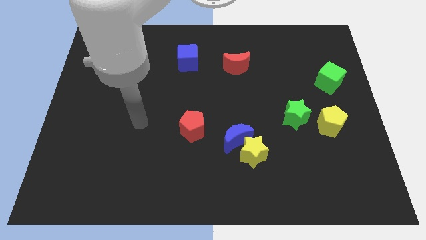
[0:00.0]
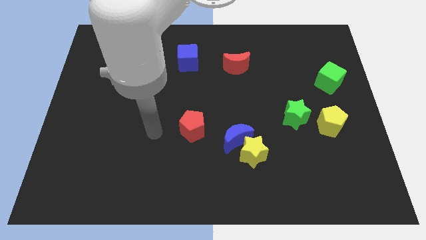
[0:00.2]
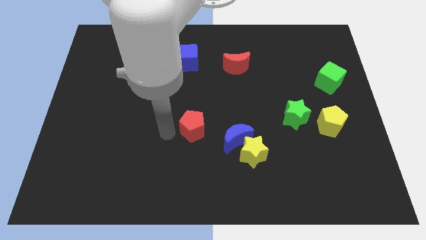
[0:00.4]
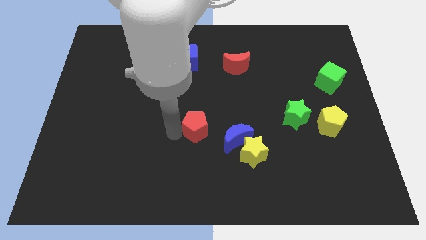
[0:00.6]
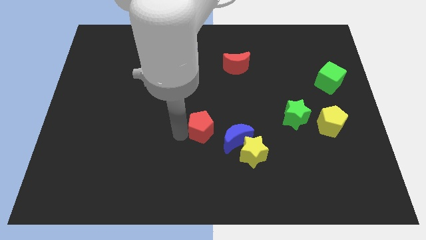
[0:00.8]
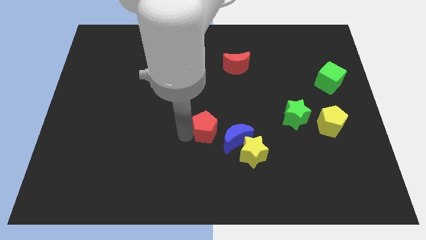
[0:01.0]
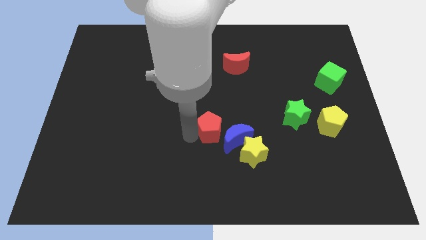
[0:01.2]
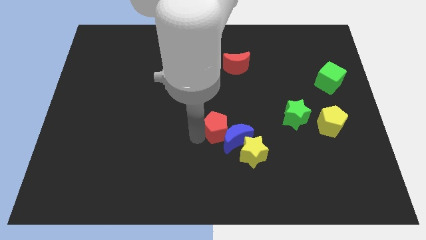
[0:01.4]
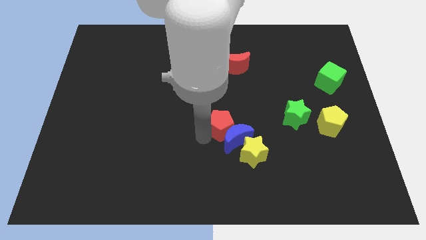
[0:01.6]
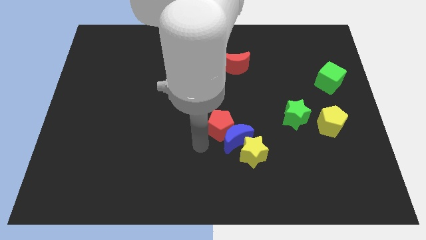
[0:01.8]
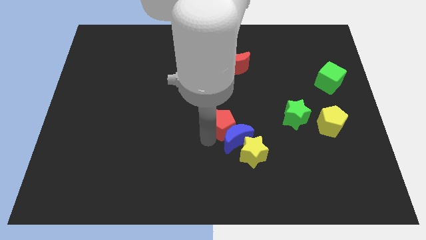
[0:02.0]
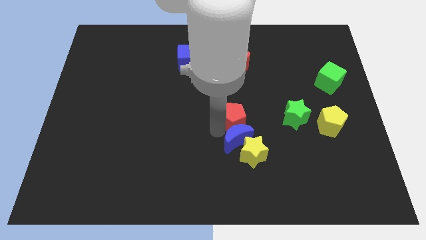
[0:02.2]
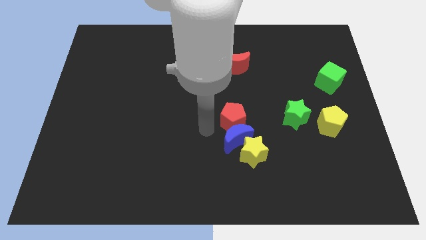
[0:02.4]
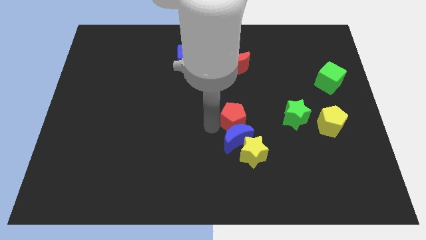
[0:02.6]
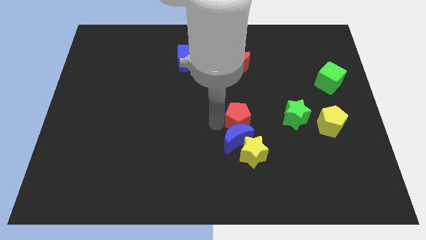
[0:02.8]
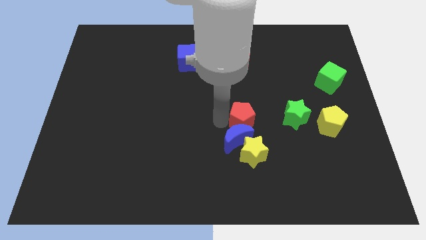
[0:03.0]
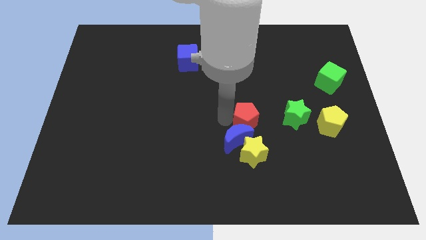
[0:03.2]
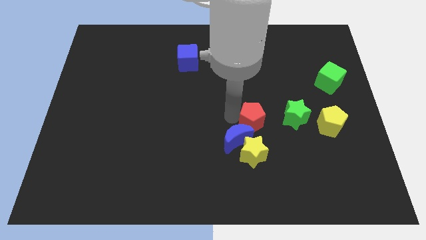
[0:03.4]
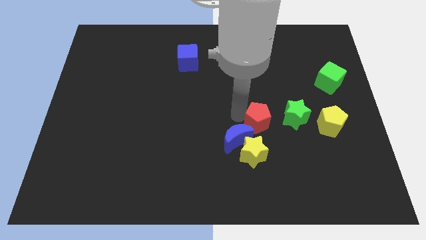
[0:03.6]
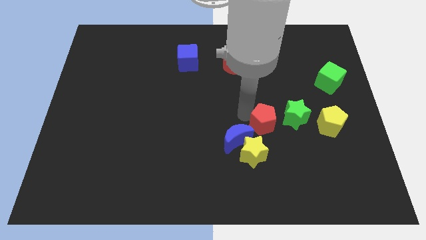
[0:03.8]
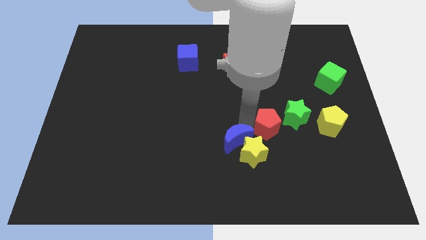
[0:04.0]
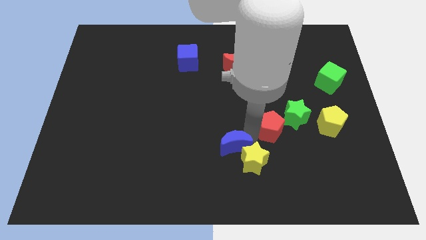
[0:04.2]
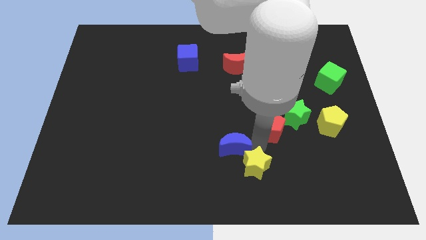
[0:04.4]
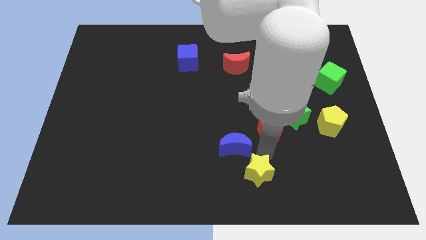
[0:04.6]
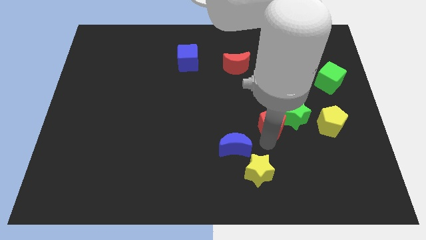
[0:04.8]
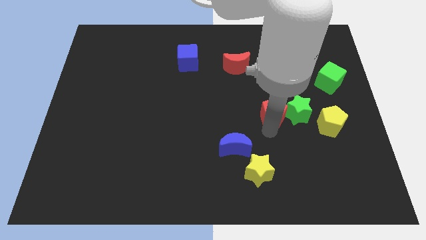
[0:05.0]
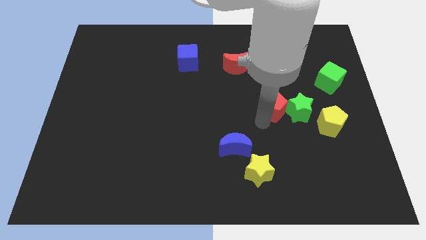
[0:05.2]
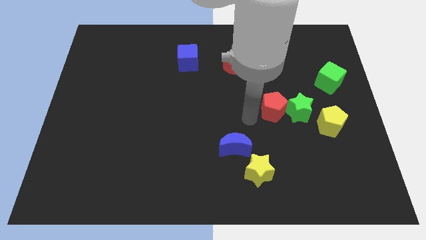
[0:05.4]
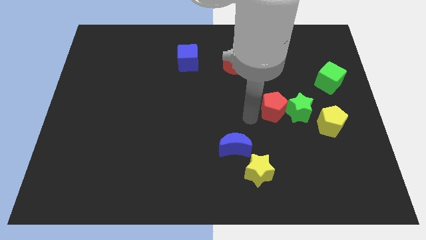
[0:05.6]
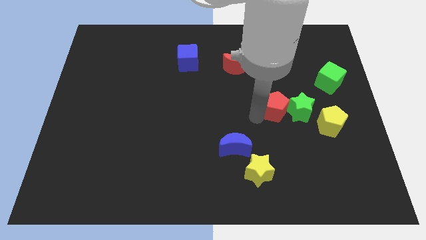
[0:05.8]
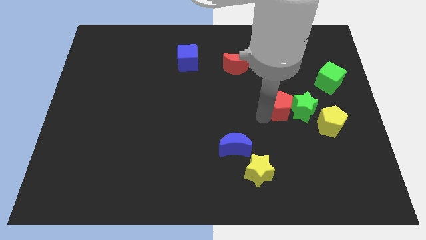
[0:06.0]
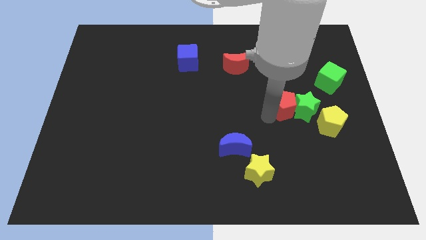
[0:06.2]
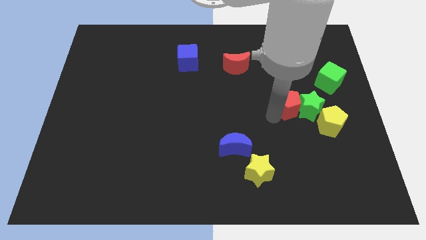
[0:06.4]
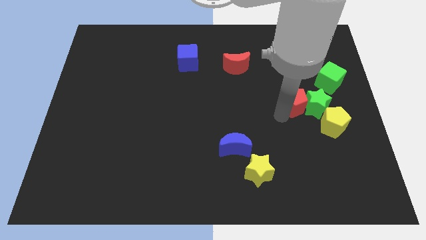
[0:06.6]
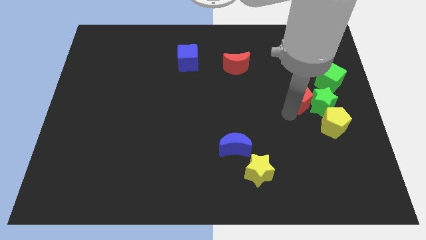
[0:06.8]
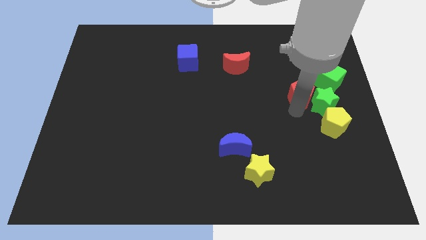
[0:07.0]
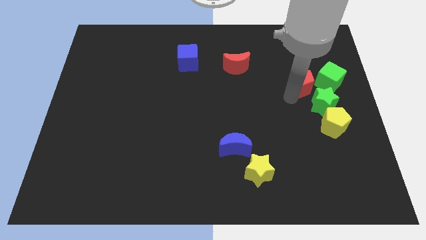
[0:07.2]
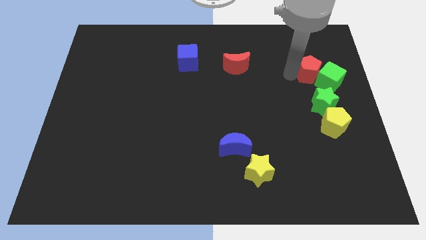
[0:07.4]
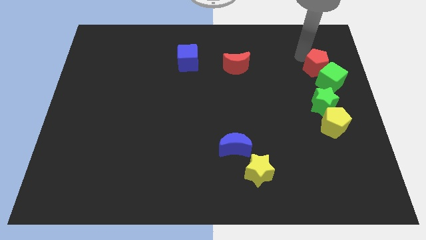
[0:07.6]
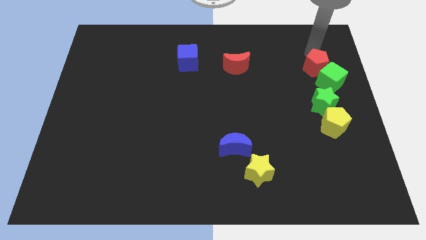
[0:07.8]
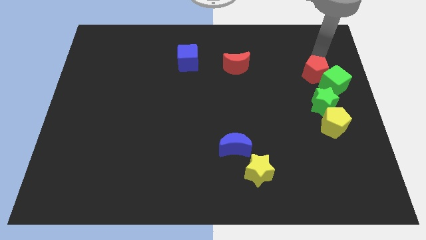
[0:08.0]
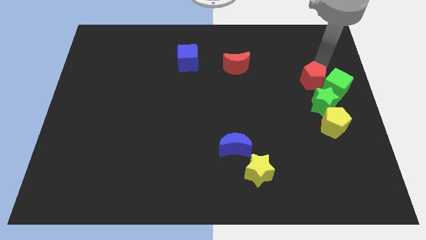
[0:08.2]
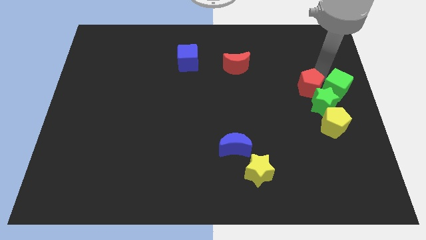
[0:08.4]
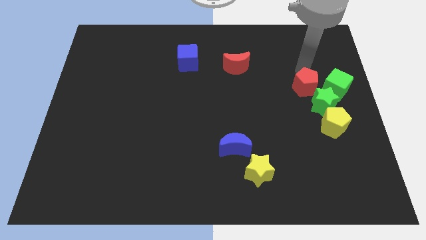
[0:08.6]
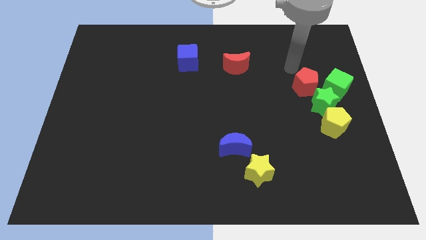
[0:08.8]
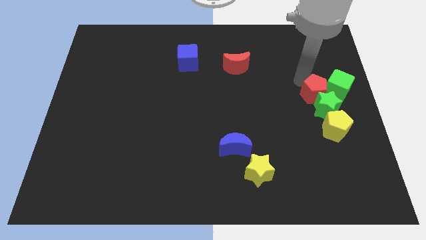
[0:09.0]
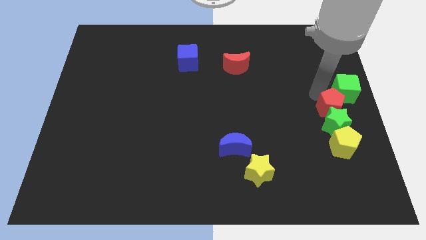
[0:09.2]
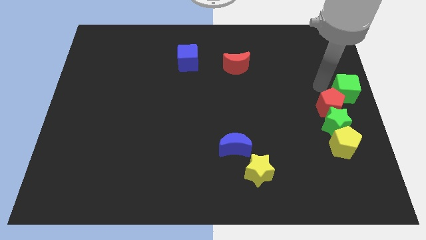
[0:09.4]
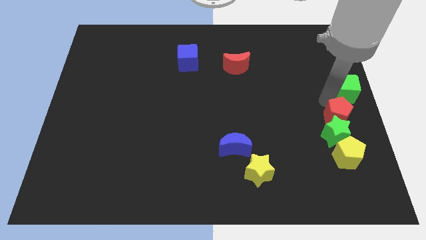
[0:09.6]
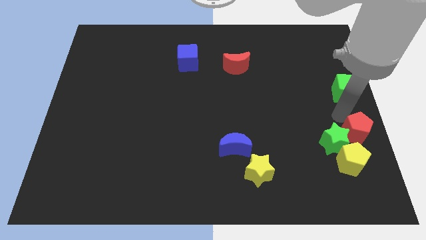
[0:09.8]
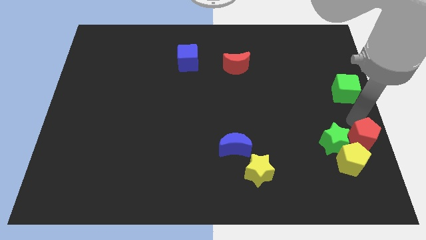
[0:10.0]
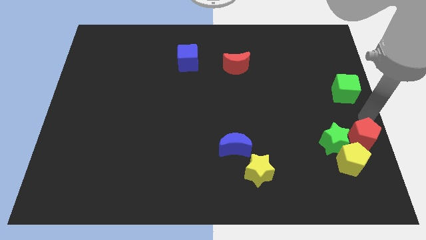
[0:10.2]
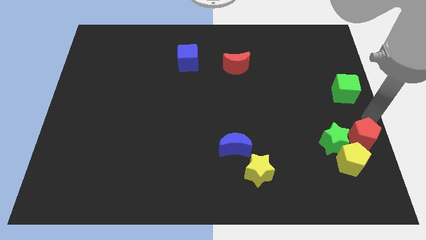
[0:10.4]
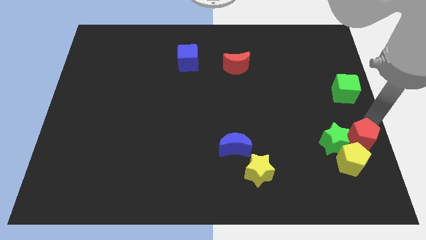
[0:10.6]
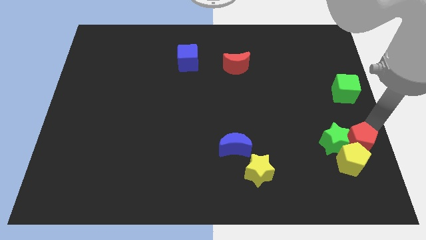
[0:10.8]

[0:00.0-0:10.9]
push the red pentagon close to the yellow pentagon

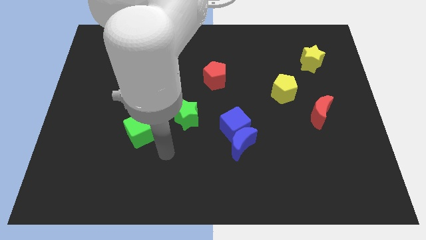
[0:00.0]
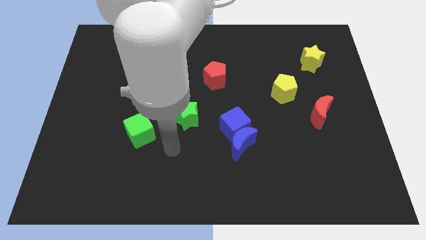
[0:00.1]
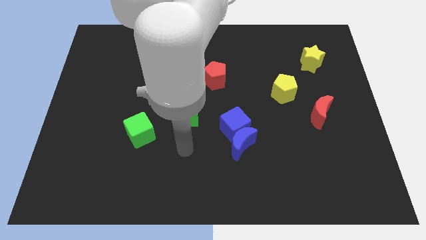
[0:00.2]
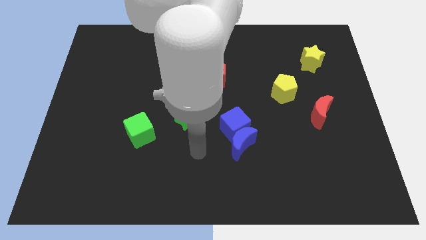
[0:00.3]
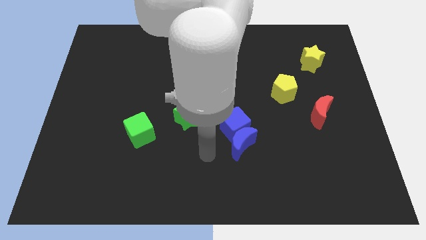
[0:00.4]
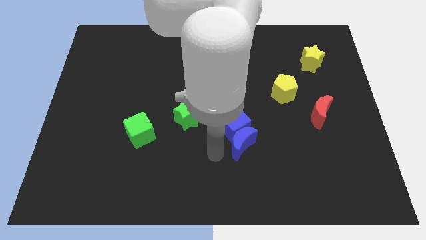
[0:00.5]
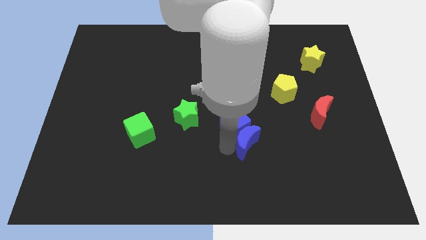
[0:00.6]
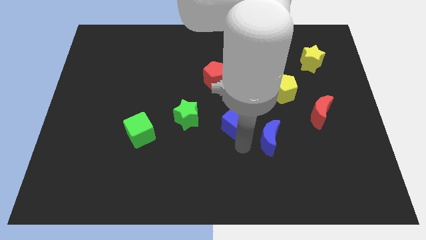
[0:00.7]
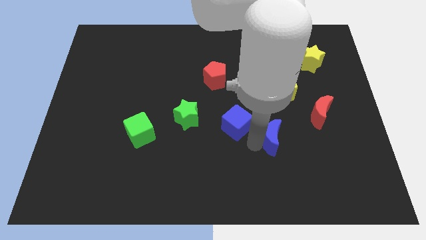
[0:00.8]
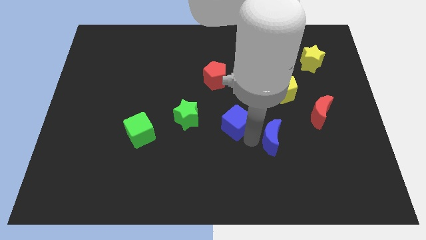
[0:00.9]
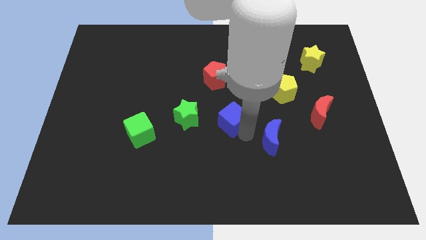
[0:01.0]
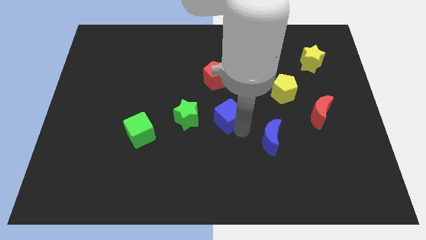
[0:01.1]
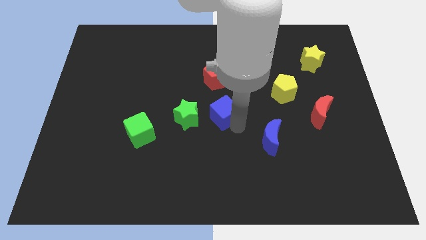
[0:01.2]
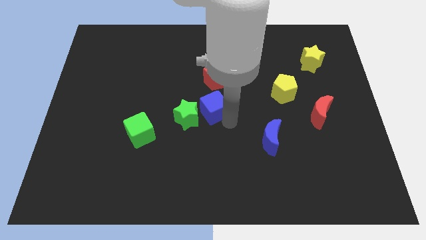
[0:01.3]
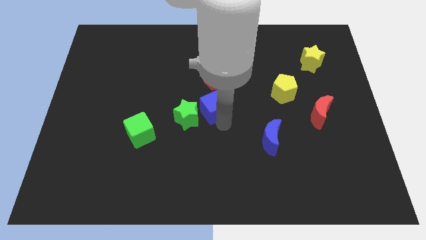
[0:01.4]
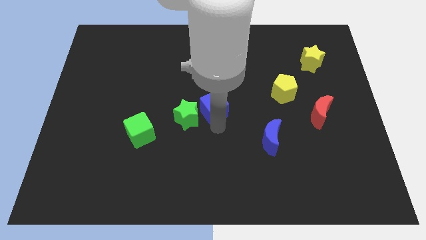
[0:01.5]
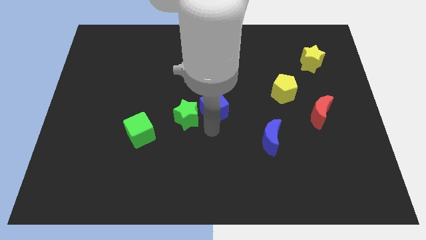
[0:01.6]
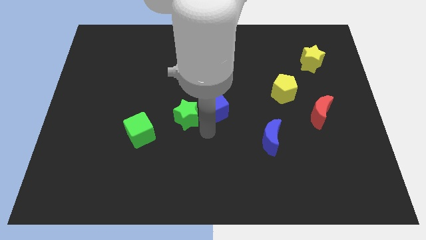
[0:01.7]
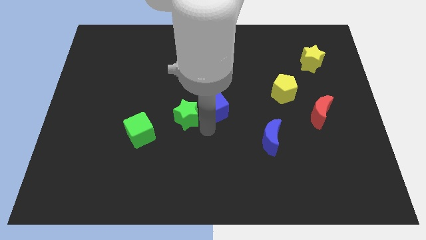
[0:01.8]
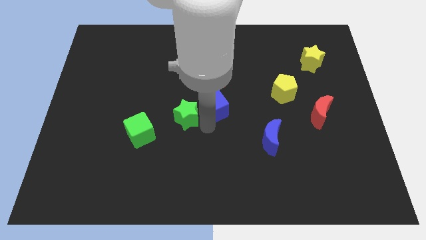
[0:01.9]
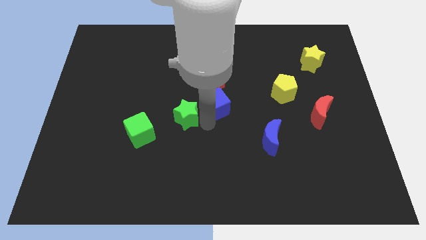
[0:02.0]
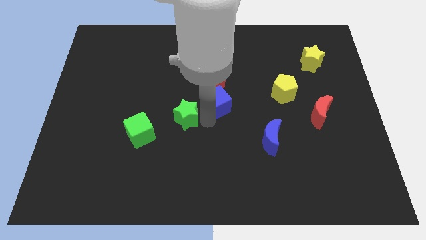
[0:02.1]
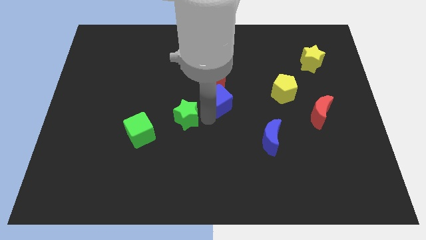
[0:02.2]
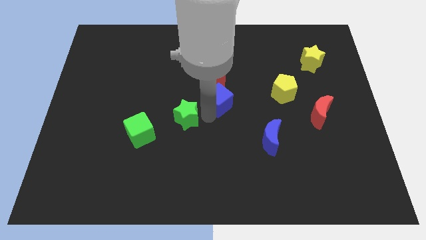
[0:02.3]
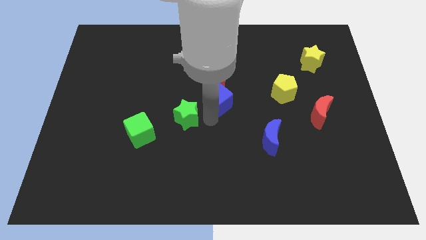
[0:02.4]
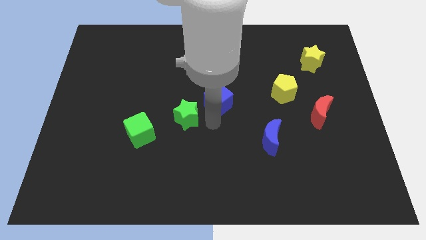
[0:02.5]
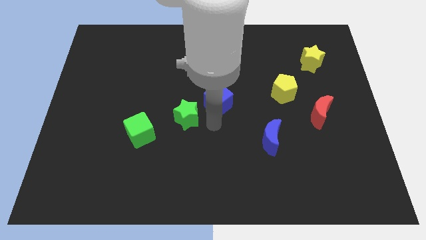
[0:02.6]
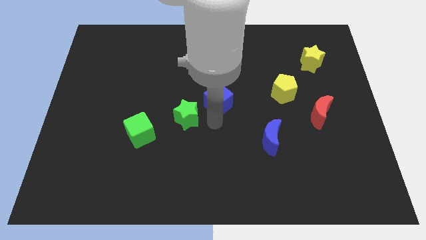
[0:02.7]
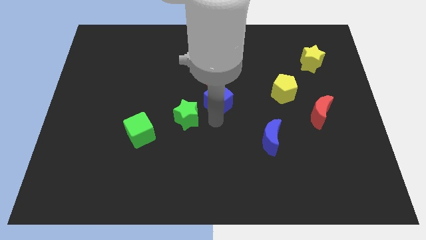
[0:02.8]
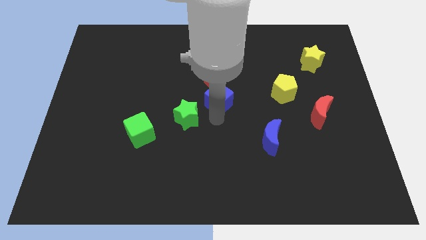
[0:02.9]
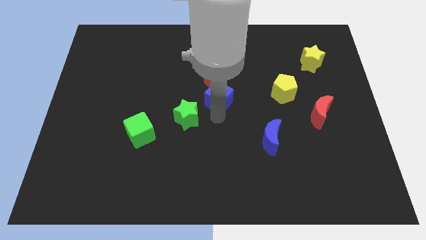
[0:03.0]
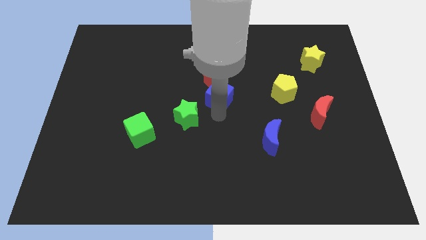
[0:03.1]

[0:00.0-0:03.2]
move the blue cube to the red pentagon
